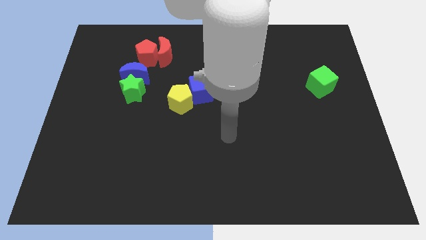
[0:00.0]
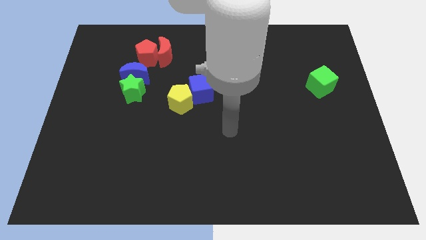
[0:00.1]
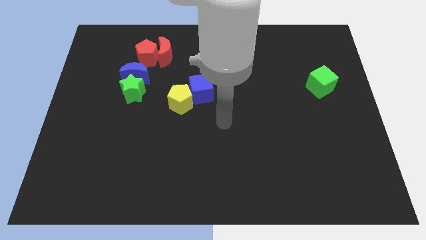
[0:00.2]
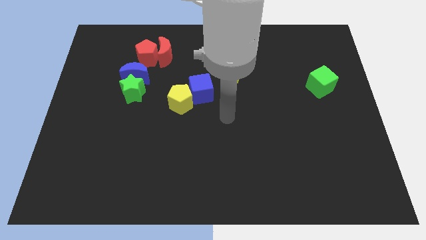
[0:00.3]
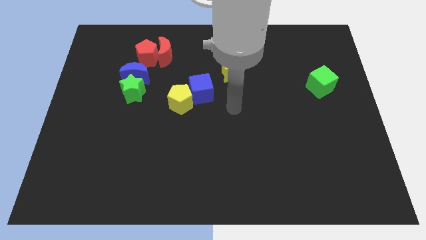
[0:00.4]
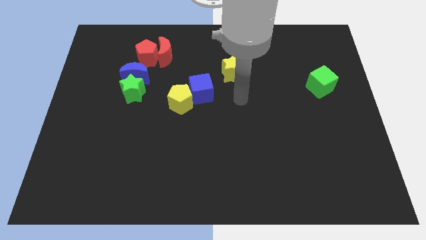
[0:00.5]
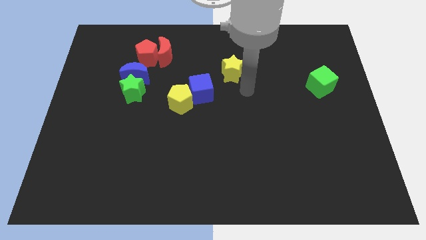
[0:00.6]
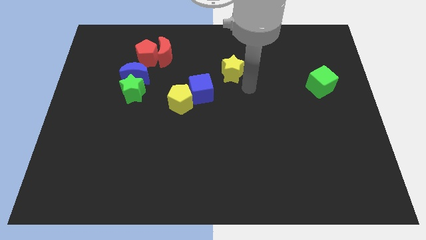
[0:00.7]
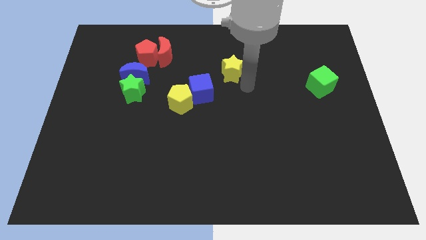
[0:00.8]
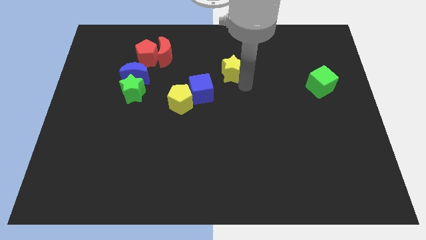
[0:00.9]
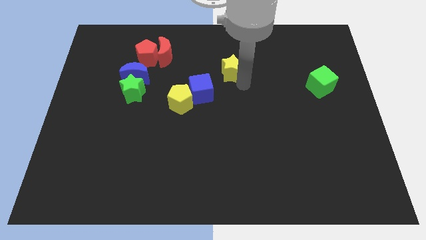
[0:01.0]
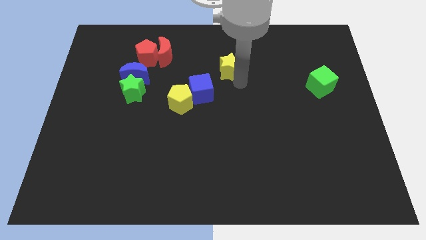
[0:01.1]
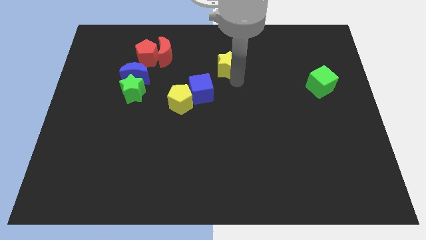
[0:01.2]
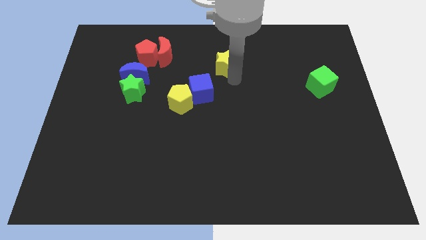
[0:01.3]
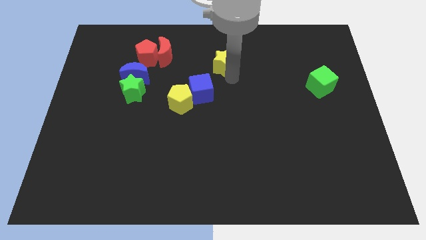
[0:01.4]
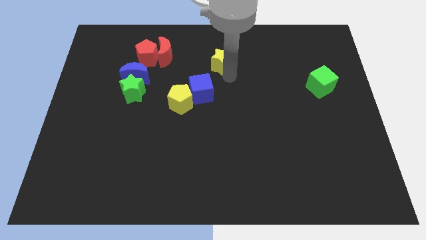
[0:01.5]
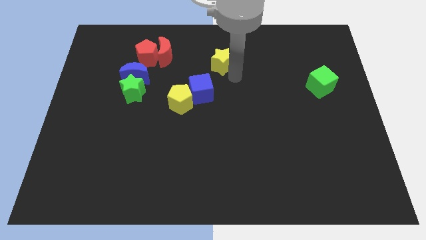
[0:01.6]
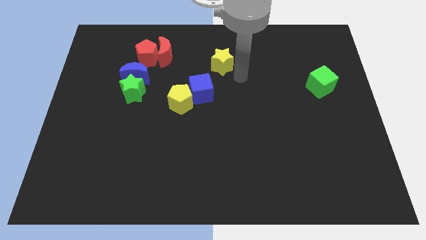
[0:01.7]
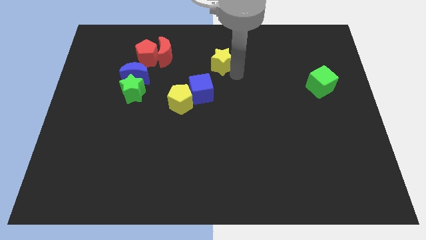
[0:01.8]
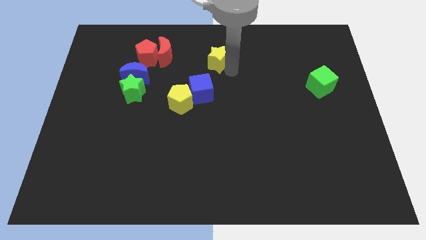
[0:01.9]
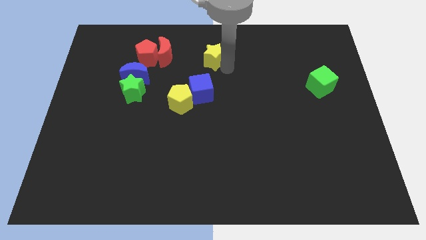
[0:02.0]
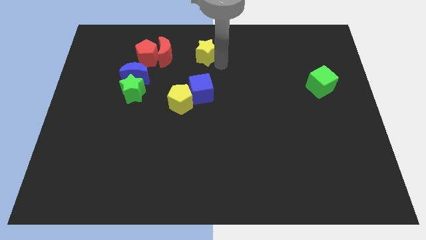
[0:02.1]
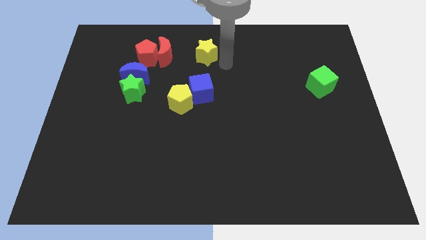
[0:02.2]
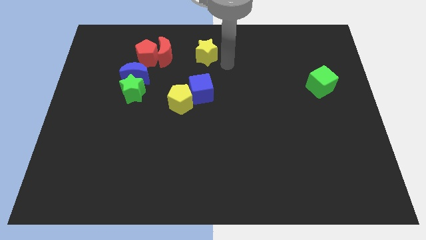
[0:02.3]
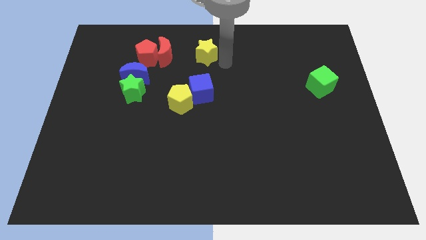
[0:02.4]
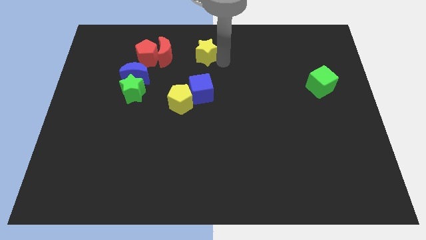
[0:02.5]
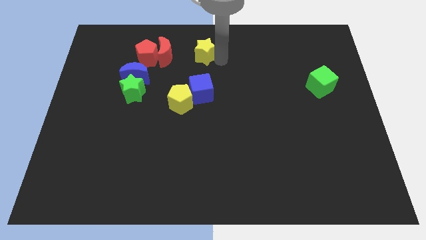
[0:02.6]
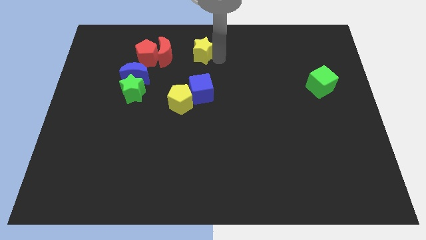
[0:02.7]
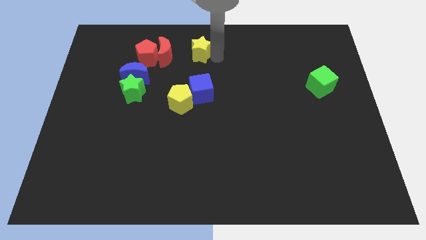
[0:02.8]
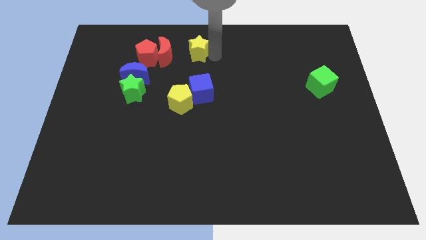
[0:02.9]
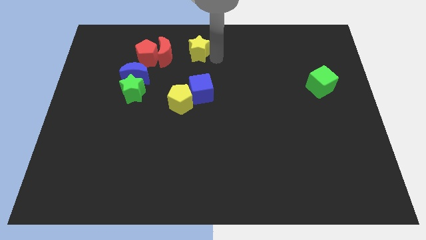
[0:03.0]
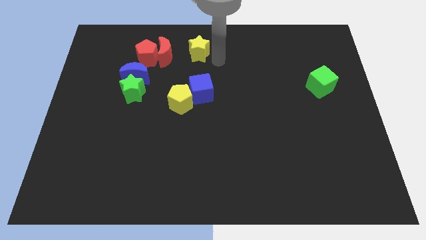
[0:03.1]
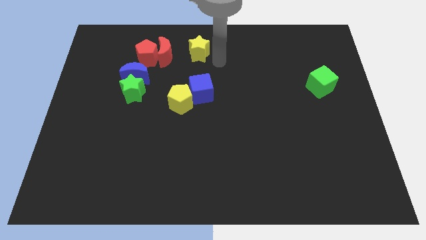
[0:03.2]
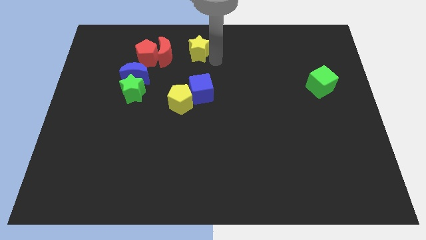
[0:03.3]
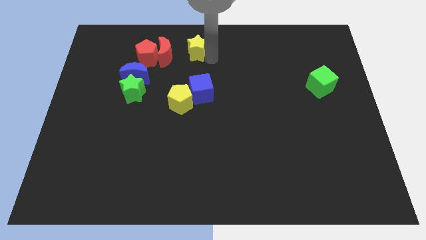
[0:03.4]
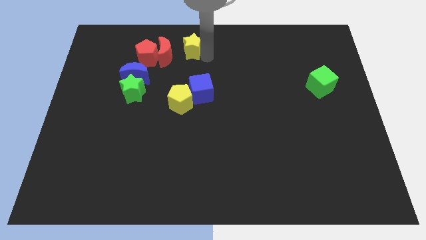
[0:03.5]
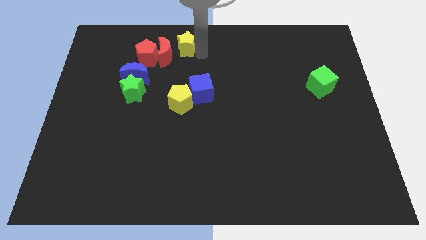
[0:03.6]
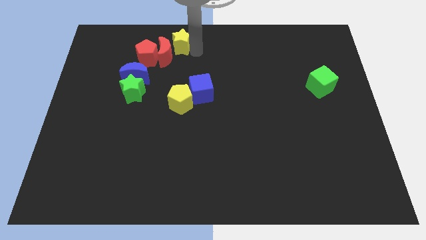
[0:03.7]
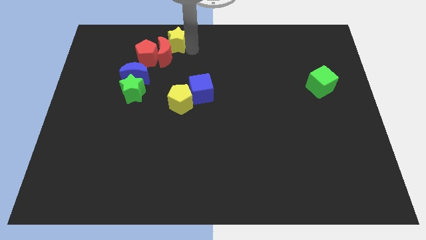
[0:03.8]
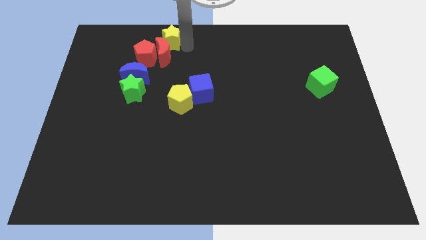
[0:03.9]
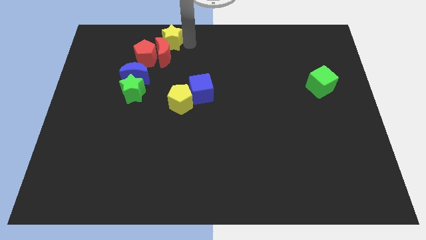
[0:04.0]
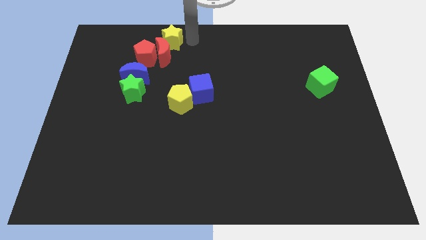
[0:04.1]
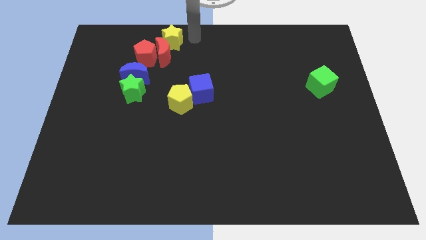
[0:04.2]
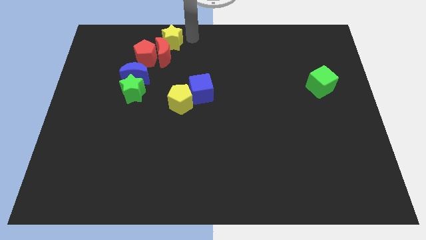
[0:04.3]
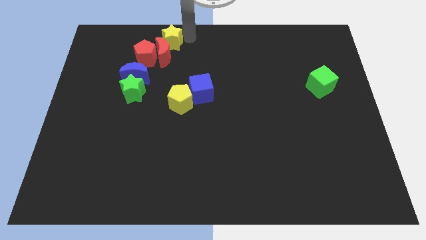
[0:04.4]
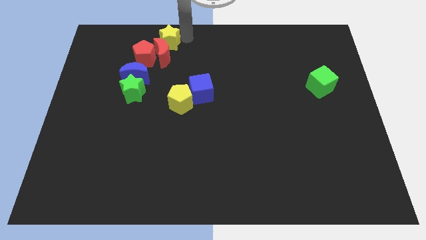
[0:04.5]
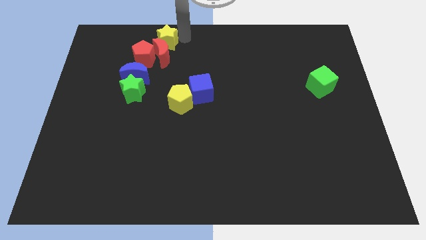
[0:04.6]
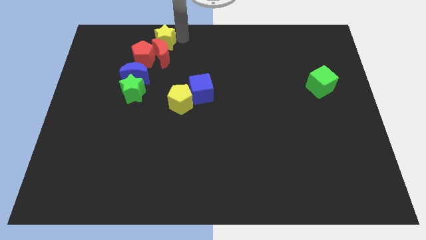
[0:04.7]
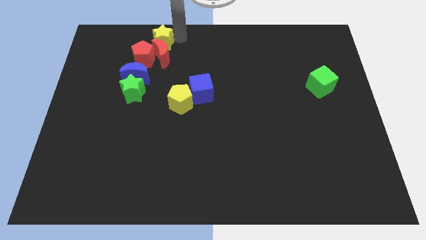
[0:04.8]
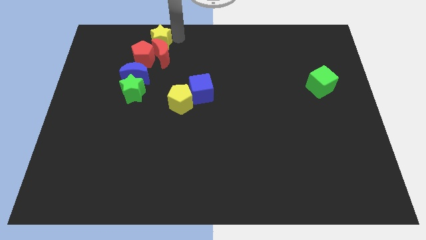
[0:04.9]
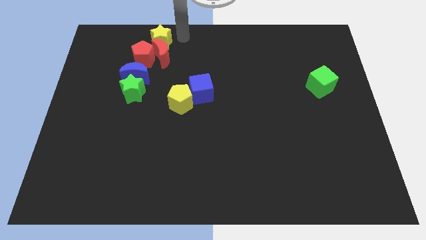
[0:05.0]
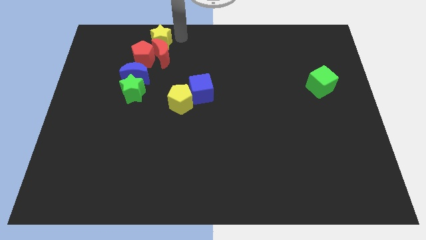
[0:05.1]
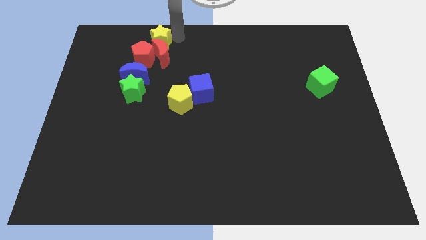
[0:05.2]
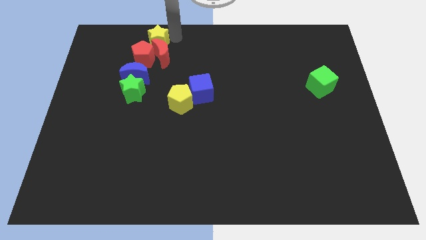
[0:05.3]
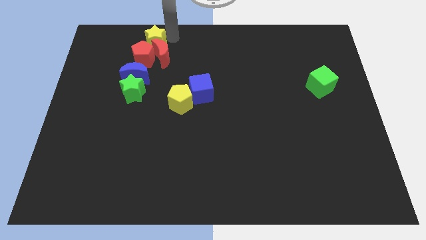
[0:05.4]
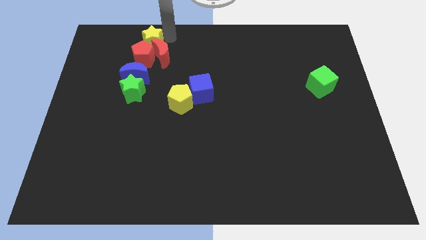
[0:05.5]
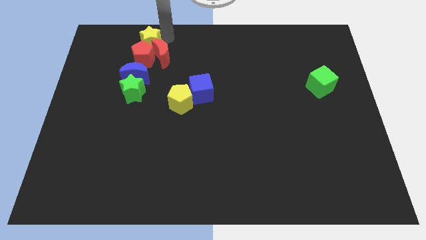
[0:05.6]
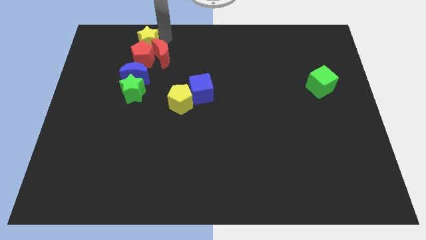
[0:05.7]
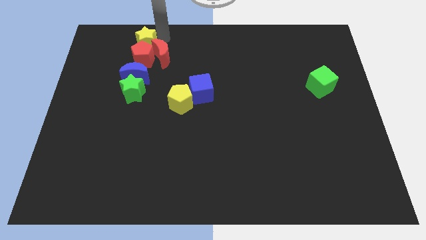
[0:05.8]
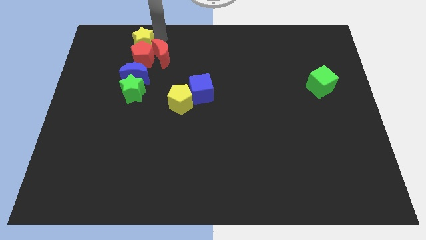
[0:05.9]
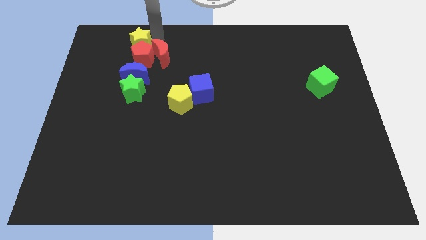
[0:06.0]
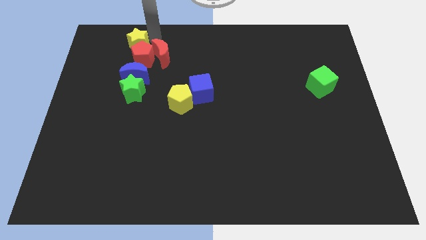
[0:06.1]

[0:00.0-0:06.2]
push the yellow star left

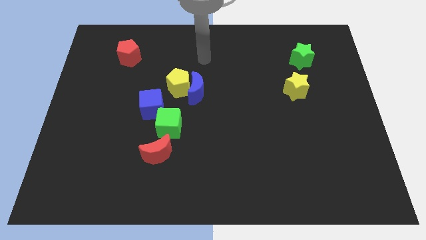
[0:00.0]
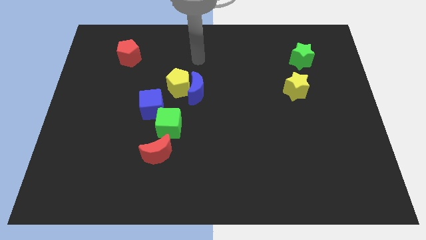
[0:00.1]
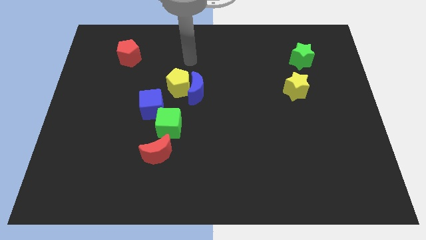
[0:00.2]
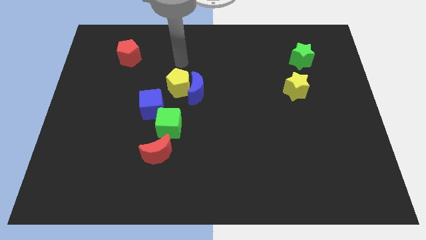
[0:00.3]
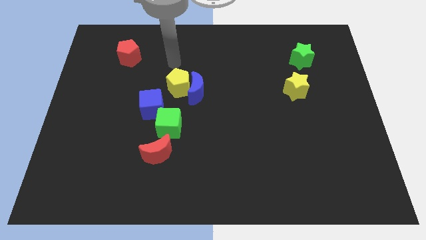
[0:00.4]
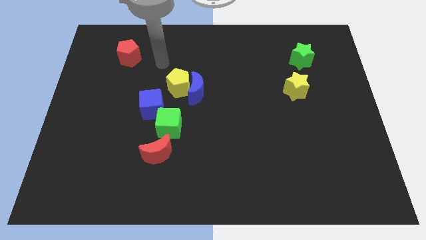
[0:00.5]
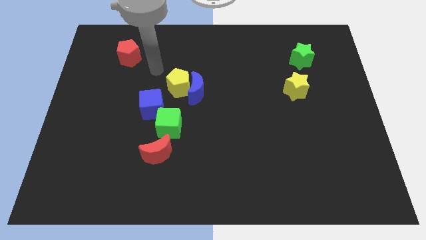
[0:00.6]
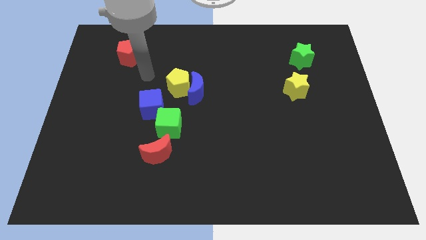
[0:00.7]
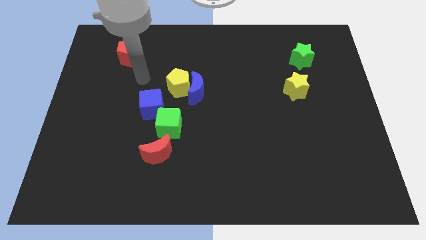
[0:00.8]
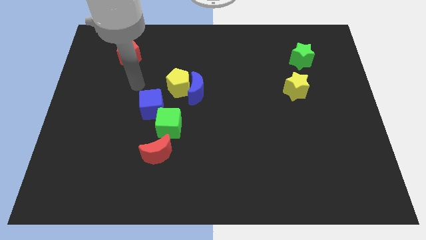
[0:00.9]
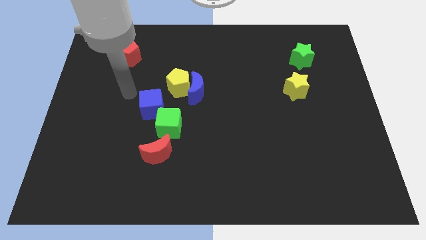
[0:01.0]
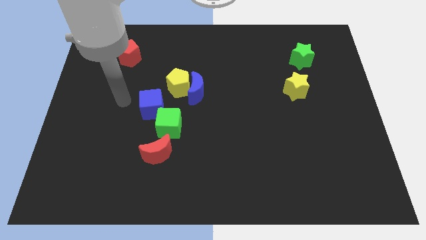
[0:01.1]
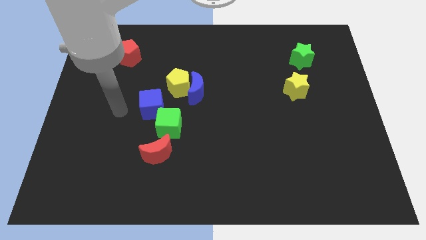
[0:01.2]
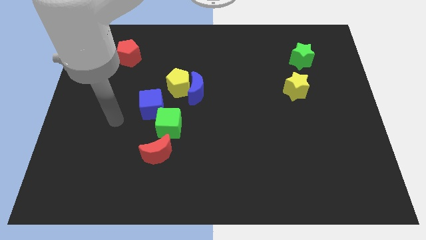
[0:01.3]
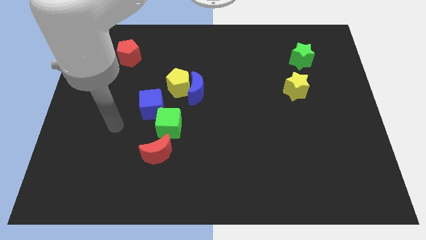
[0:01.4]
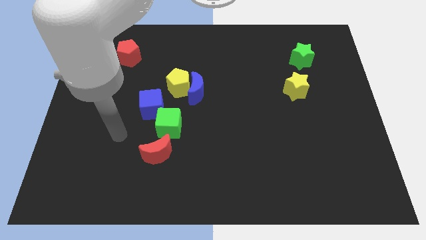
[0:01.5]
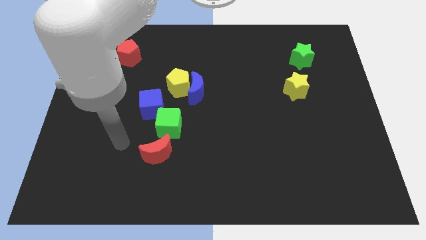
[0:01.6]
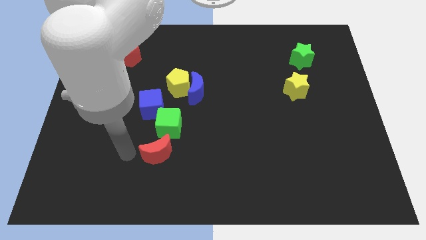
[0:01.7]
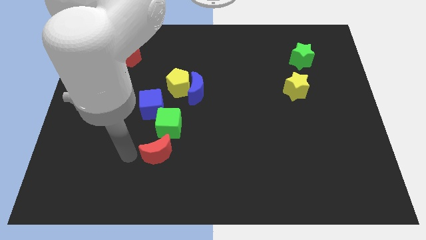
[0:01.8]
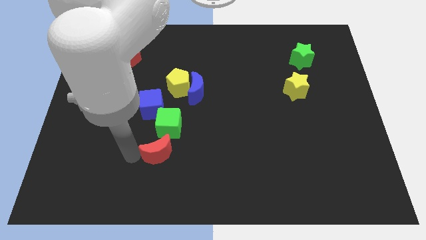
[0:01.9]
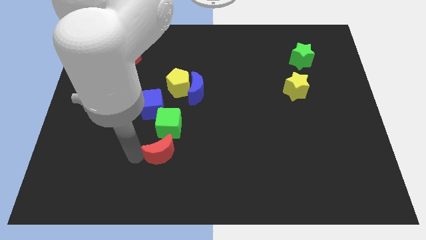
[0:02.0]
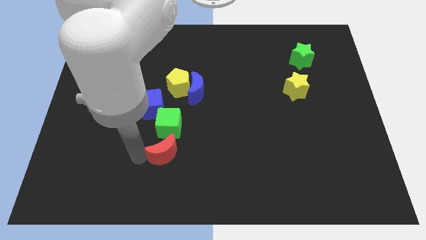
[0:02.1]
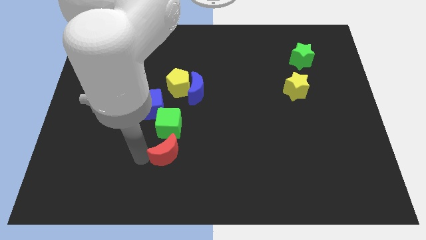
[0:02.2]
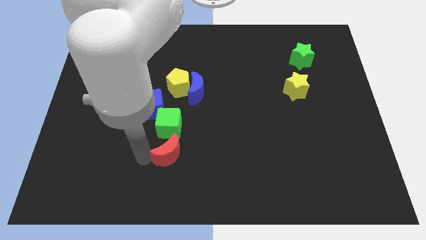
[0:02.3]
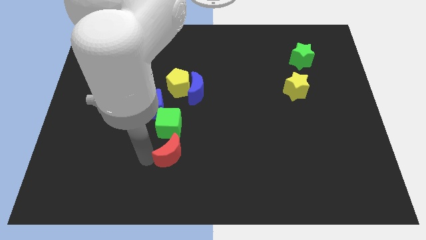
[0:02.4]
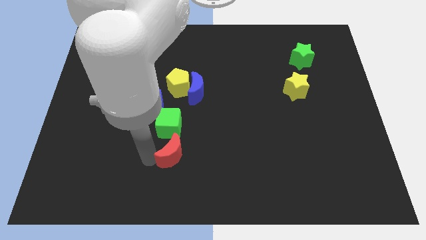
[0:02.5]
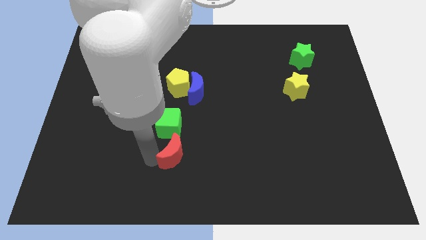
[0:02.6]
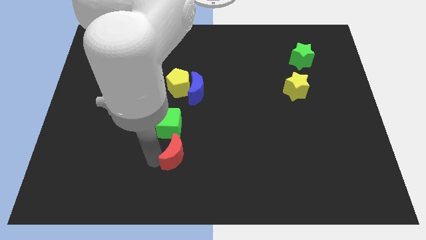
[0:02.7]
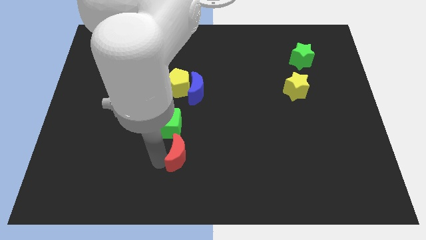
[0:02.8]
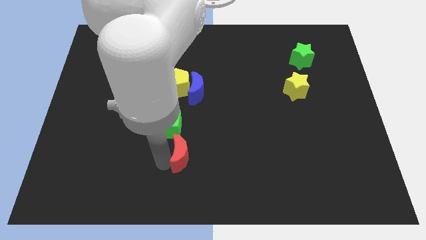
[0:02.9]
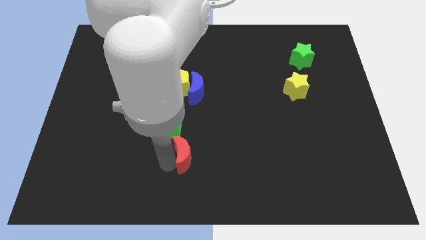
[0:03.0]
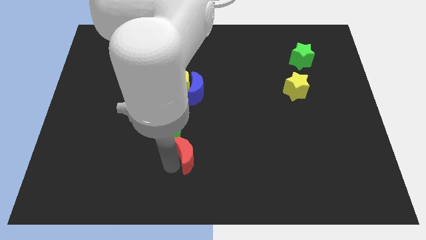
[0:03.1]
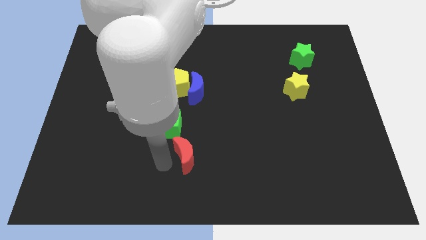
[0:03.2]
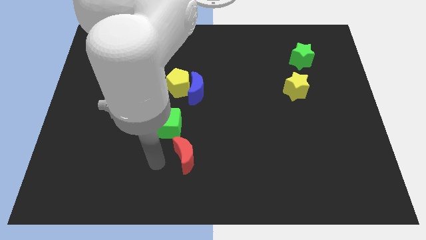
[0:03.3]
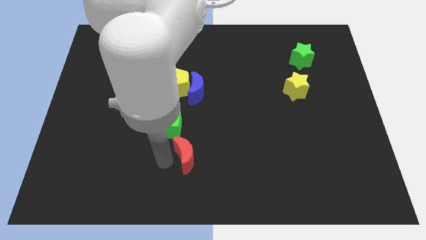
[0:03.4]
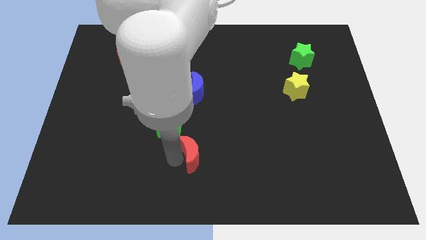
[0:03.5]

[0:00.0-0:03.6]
slide the red moon right a little
